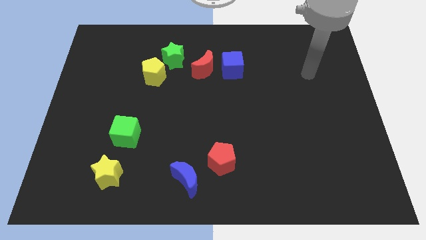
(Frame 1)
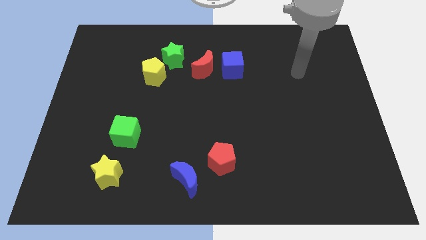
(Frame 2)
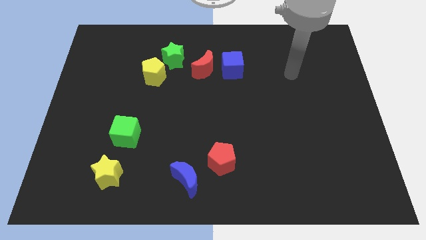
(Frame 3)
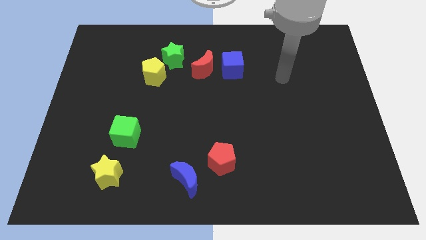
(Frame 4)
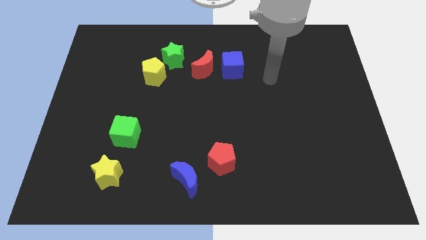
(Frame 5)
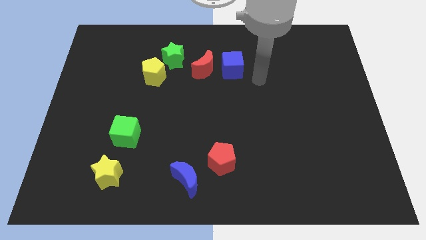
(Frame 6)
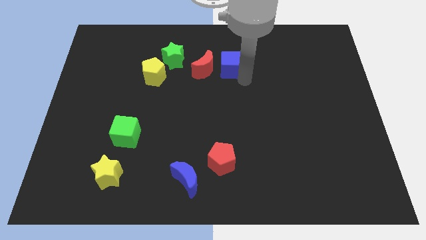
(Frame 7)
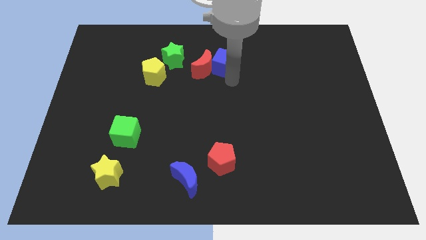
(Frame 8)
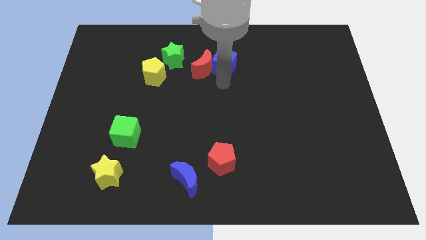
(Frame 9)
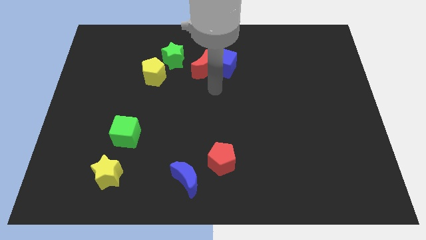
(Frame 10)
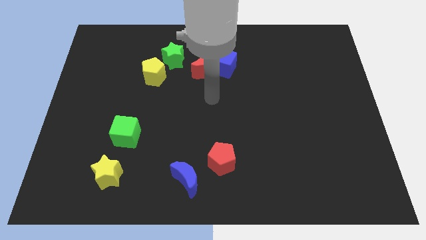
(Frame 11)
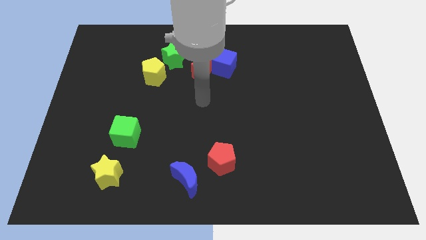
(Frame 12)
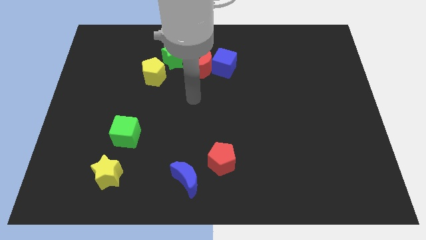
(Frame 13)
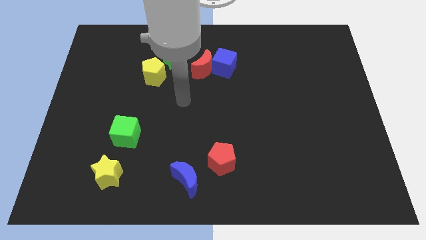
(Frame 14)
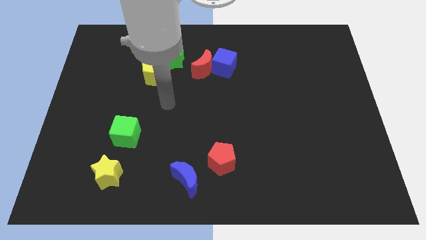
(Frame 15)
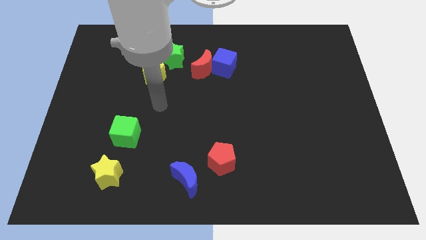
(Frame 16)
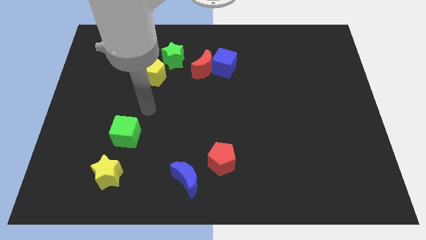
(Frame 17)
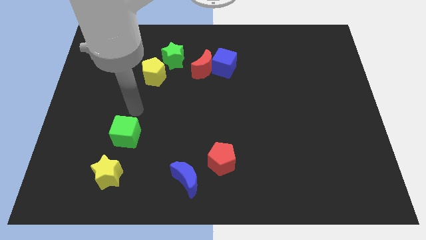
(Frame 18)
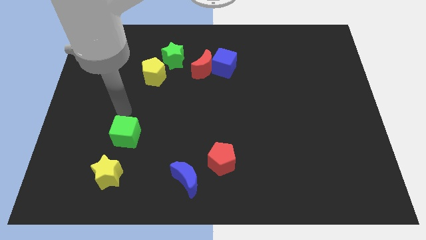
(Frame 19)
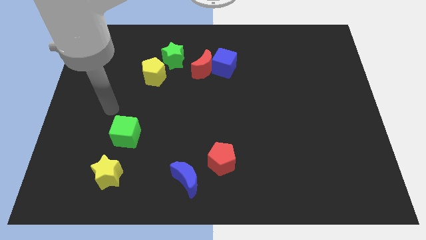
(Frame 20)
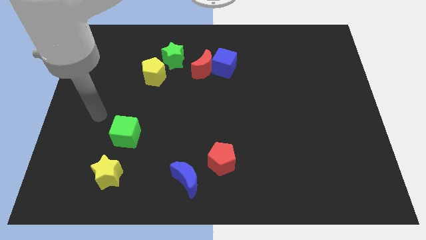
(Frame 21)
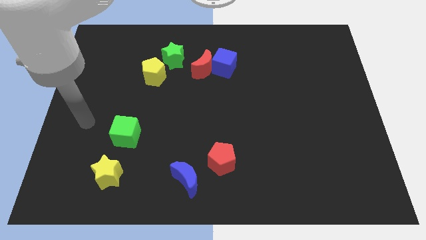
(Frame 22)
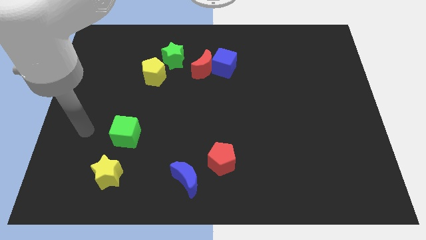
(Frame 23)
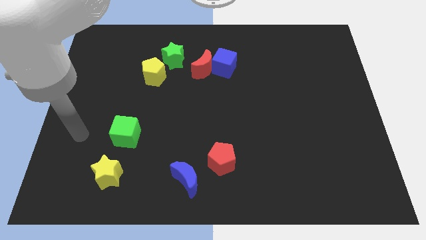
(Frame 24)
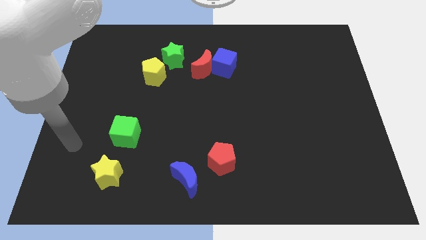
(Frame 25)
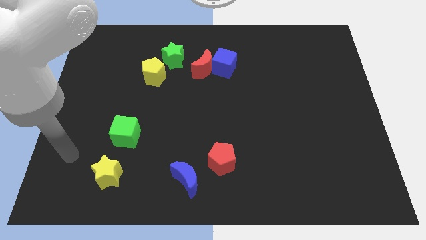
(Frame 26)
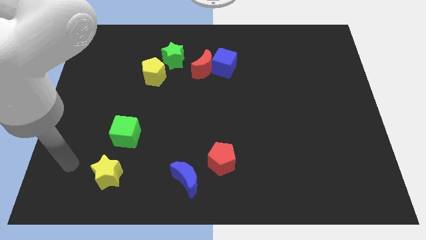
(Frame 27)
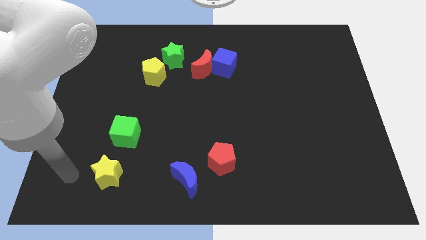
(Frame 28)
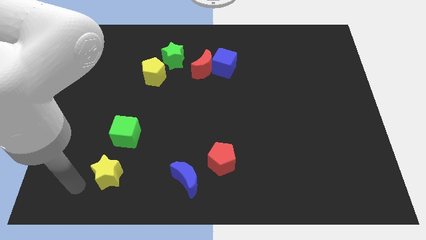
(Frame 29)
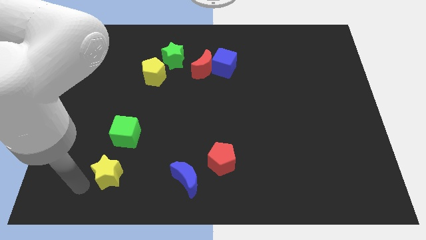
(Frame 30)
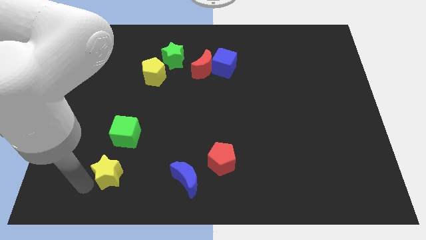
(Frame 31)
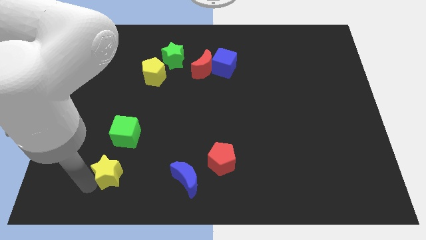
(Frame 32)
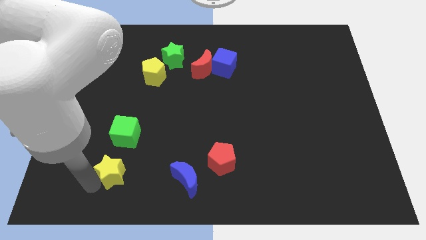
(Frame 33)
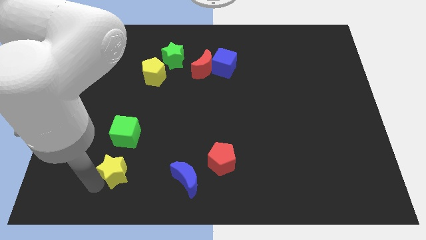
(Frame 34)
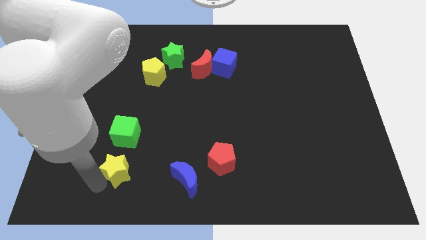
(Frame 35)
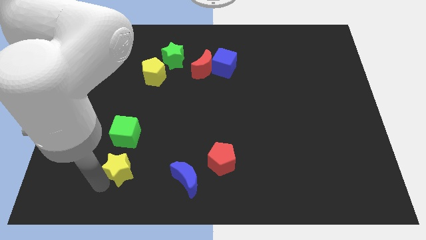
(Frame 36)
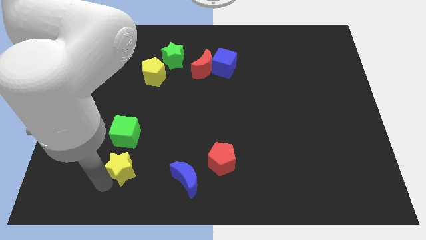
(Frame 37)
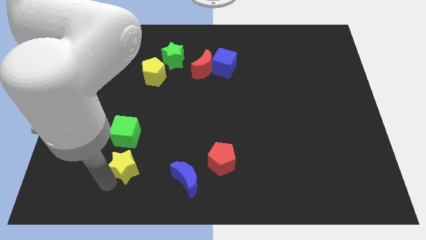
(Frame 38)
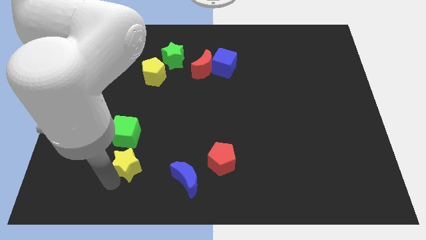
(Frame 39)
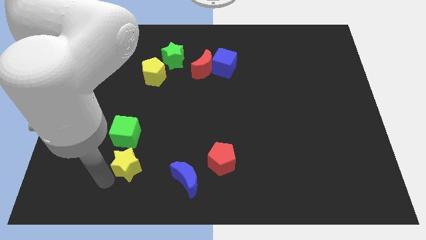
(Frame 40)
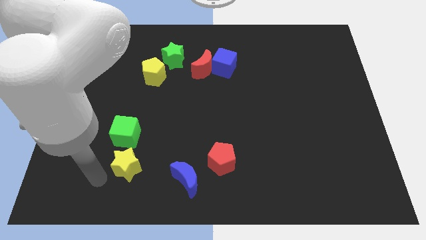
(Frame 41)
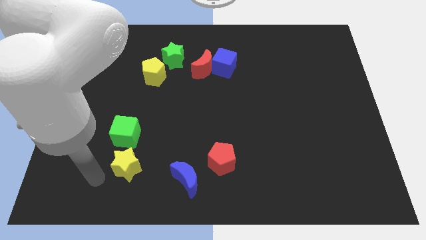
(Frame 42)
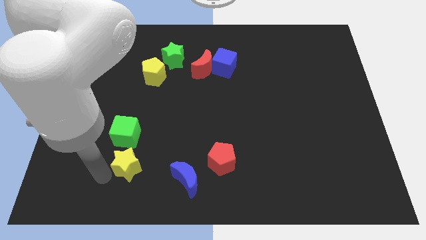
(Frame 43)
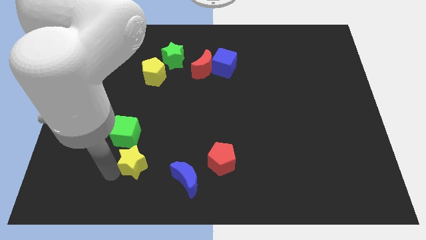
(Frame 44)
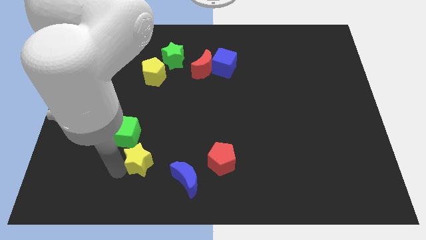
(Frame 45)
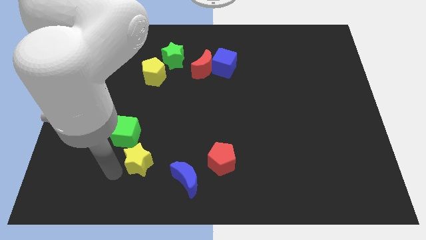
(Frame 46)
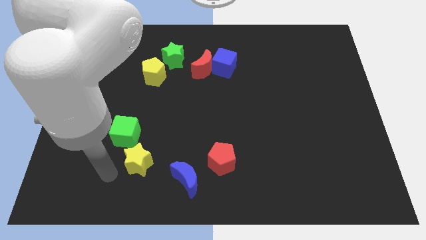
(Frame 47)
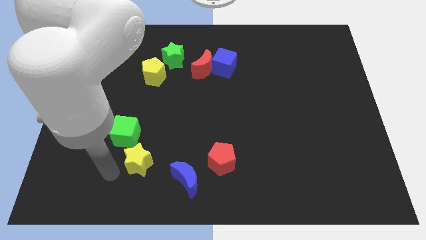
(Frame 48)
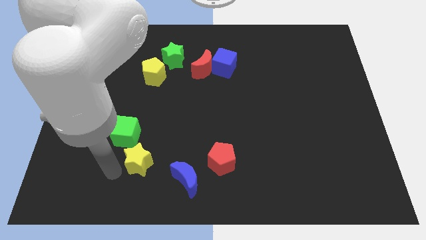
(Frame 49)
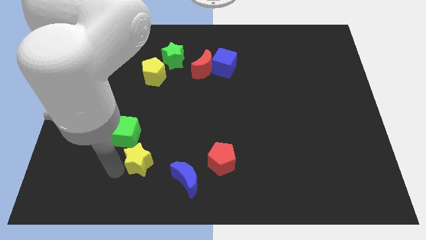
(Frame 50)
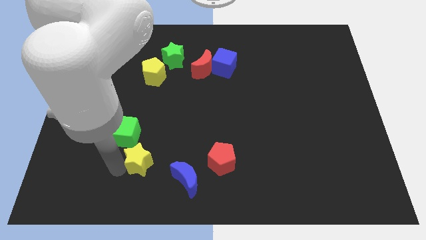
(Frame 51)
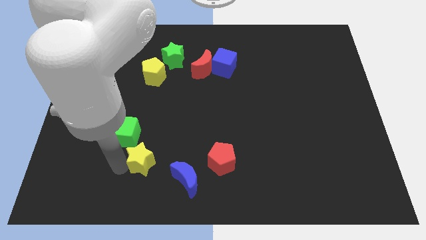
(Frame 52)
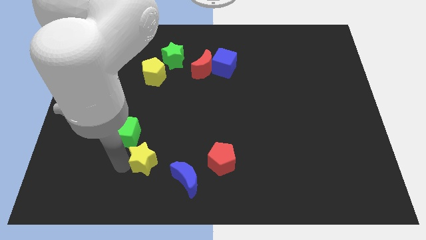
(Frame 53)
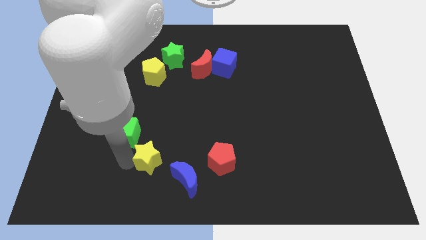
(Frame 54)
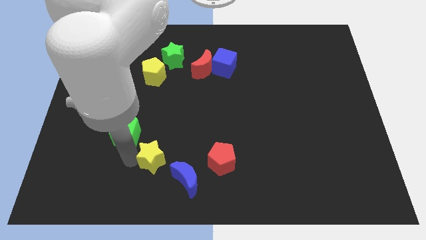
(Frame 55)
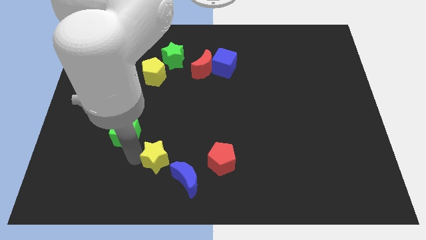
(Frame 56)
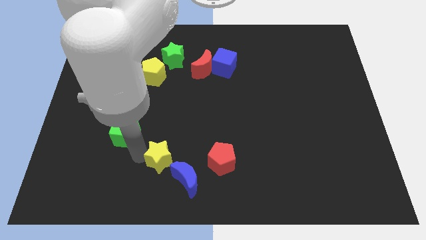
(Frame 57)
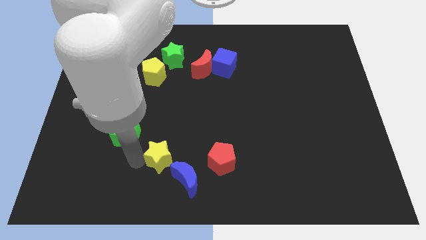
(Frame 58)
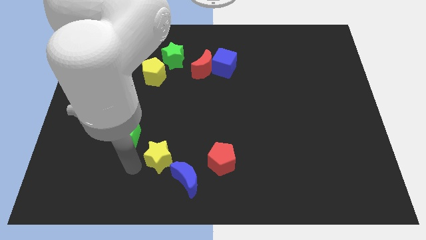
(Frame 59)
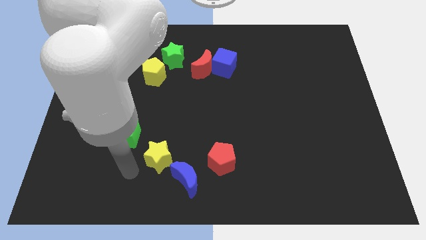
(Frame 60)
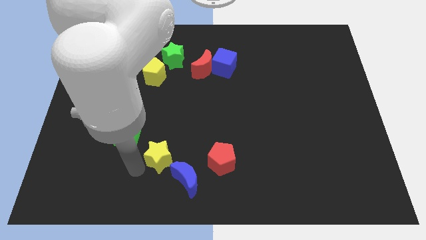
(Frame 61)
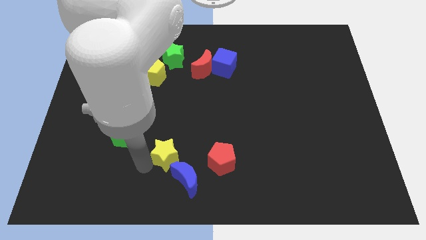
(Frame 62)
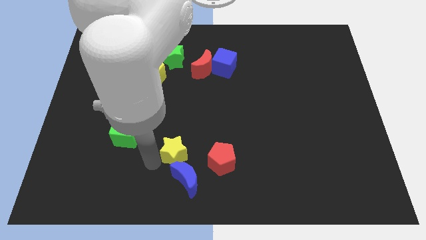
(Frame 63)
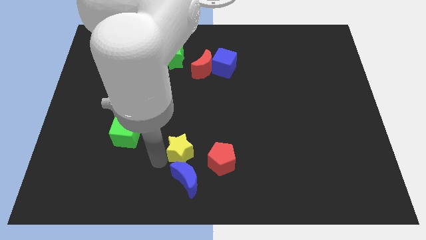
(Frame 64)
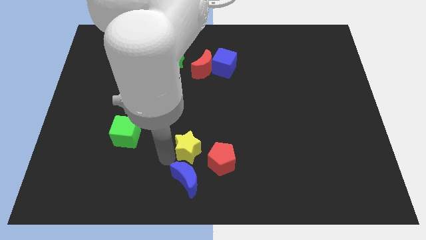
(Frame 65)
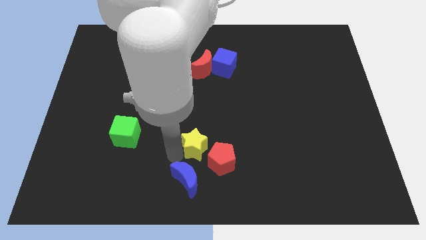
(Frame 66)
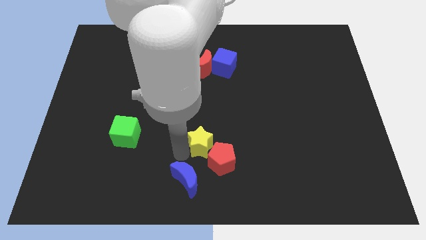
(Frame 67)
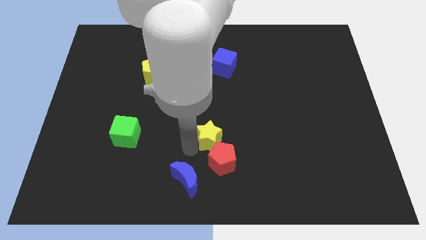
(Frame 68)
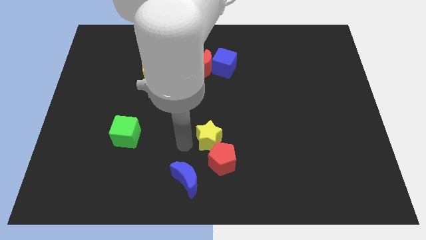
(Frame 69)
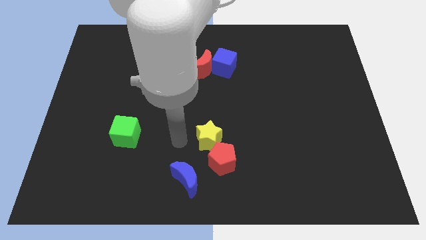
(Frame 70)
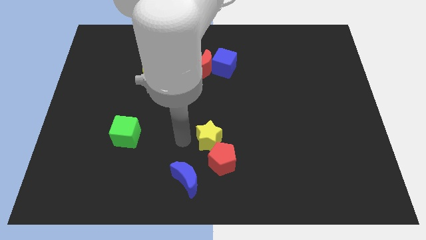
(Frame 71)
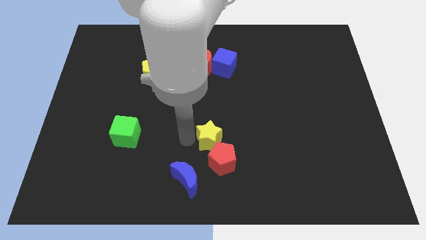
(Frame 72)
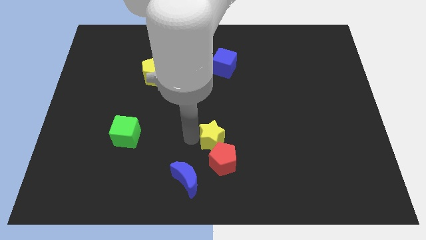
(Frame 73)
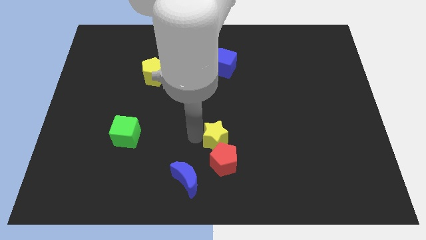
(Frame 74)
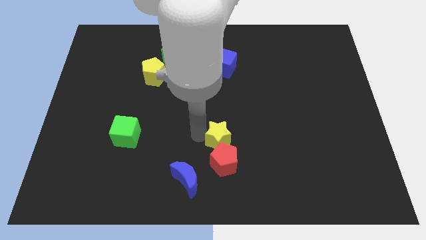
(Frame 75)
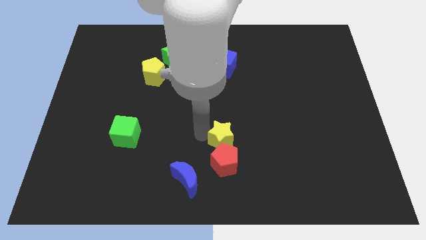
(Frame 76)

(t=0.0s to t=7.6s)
put the yellow star to the top right of the red pentagon
